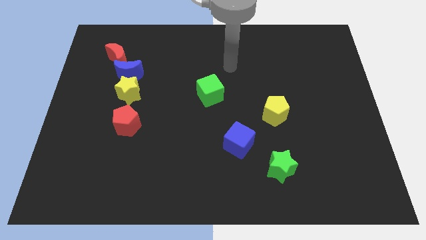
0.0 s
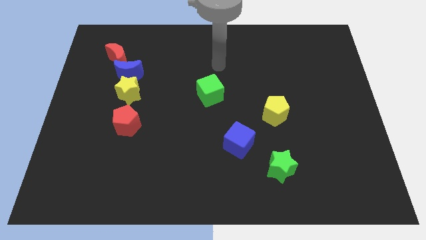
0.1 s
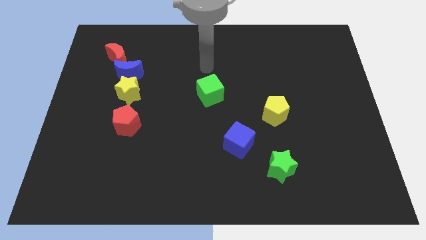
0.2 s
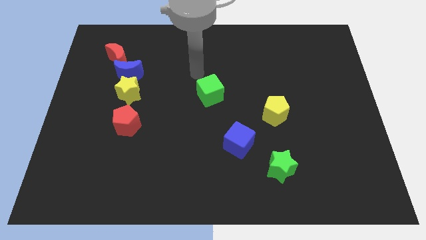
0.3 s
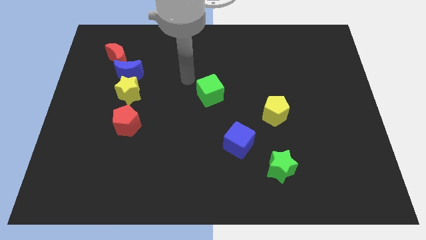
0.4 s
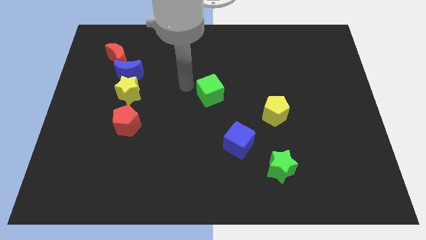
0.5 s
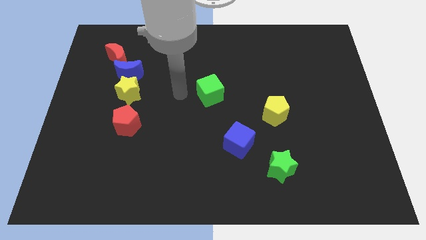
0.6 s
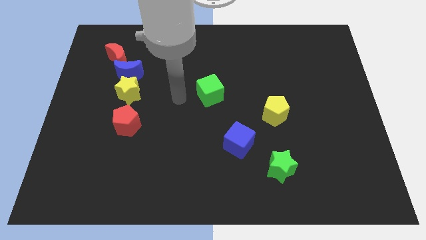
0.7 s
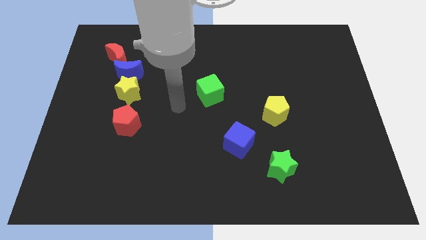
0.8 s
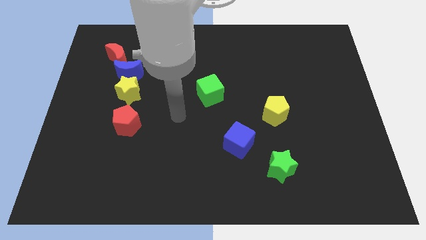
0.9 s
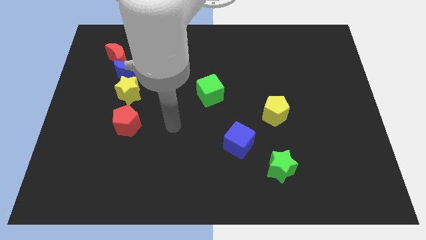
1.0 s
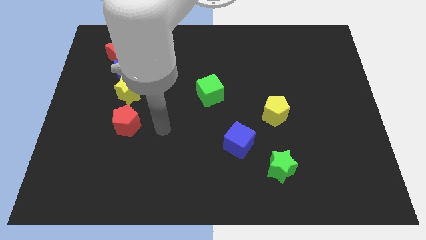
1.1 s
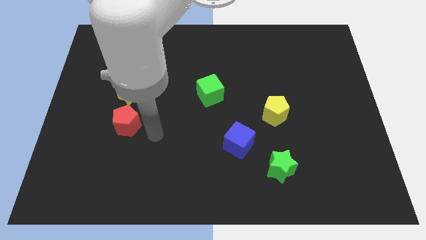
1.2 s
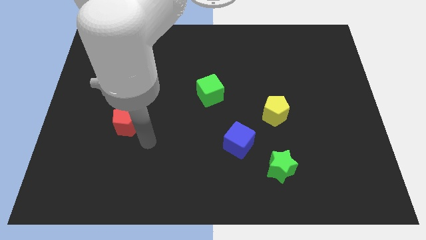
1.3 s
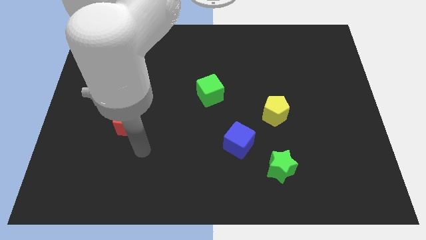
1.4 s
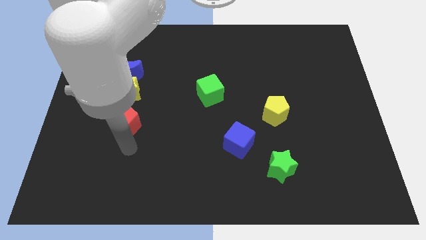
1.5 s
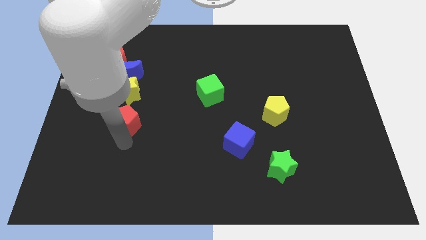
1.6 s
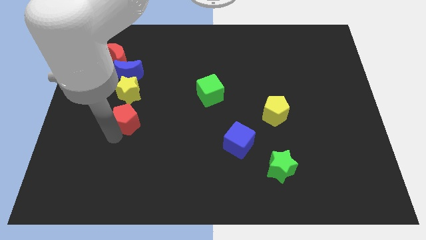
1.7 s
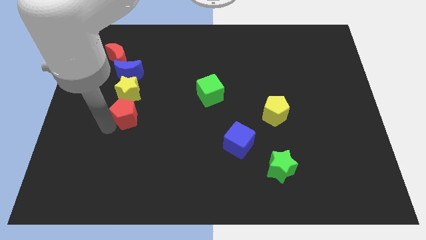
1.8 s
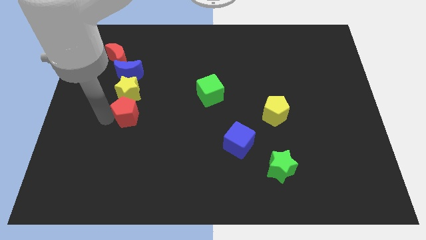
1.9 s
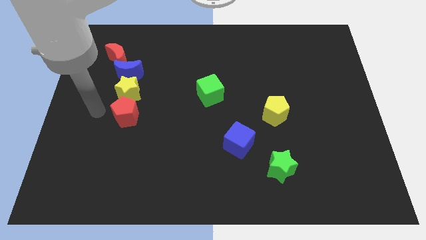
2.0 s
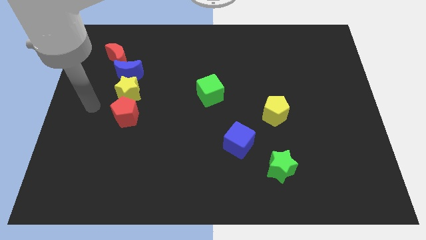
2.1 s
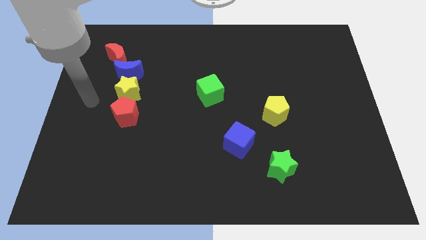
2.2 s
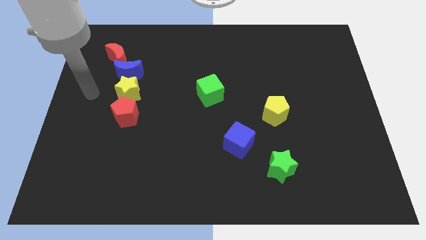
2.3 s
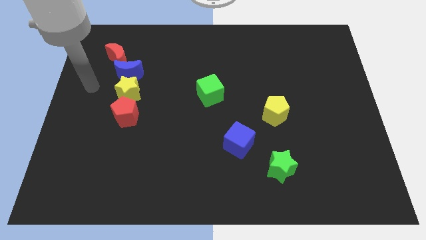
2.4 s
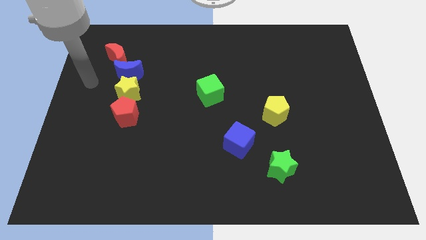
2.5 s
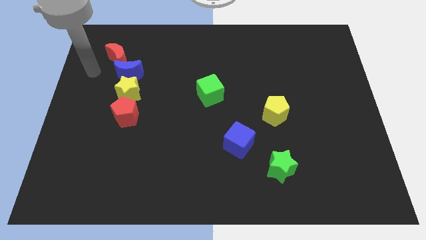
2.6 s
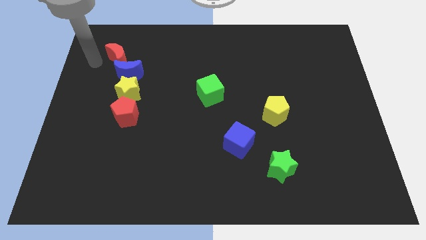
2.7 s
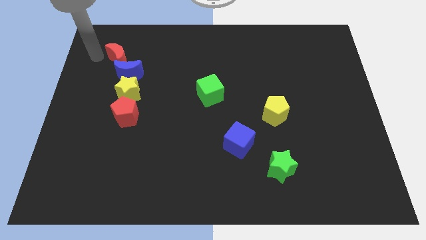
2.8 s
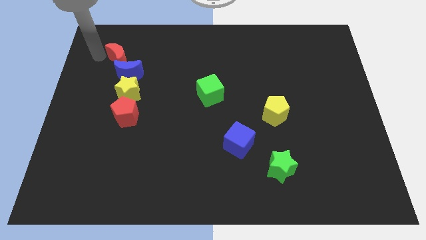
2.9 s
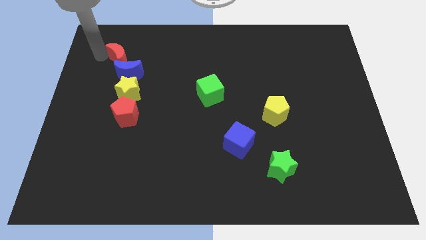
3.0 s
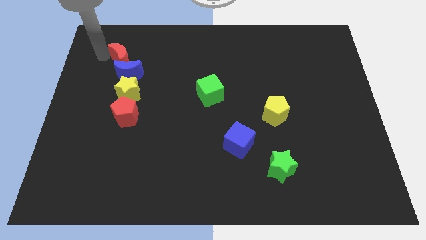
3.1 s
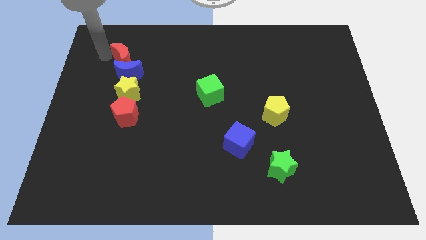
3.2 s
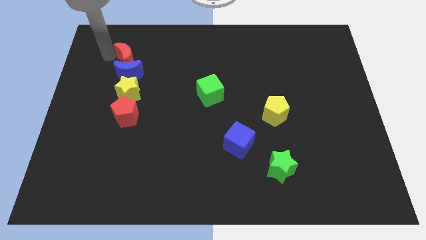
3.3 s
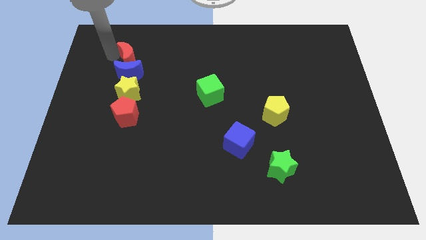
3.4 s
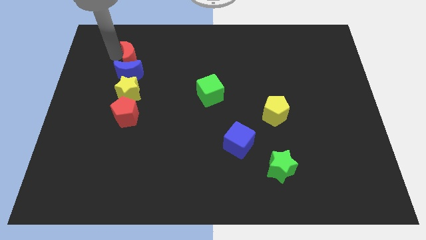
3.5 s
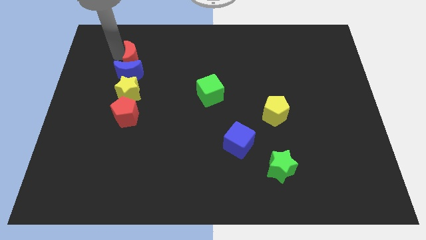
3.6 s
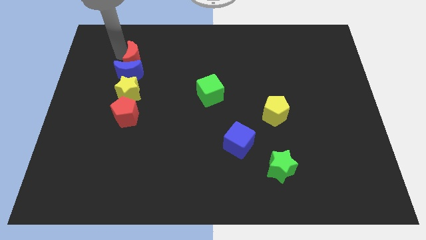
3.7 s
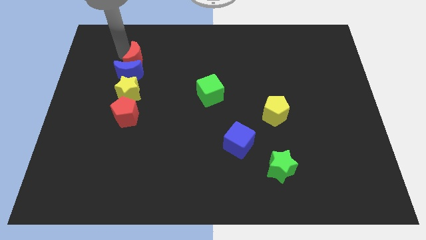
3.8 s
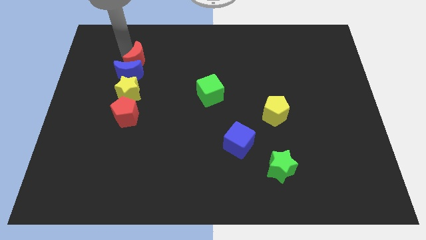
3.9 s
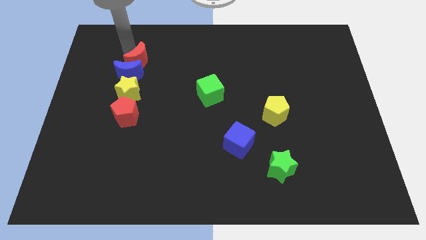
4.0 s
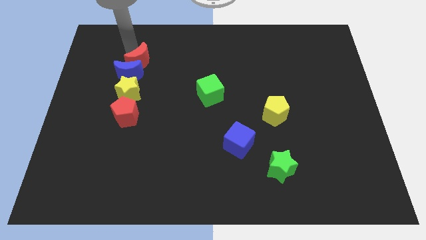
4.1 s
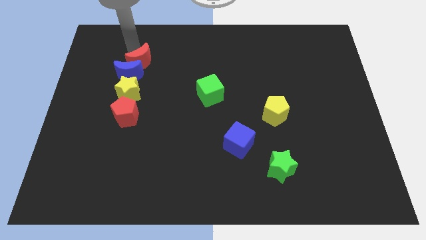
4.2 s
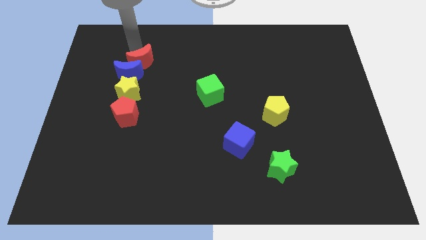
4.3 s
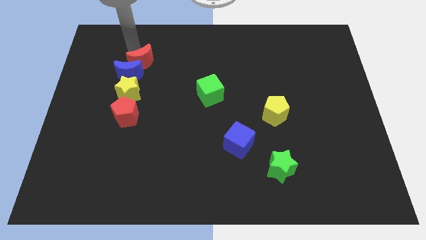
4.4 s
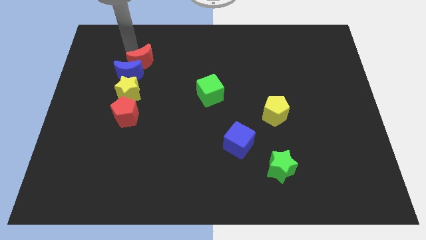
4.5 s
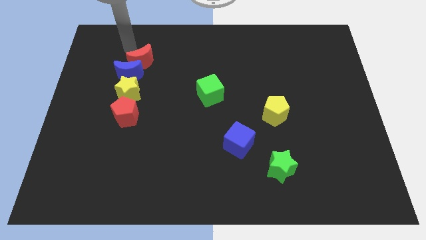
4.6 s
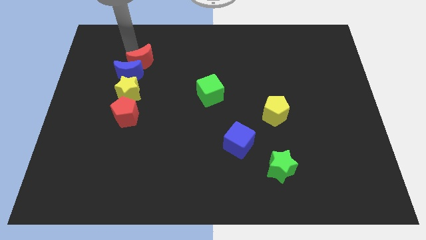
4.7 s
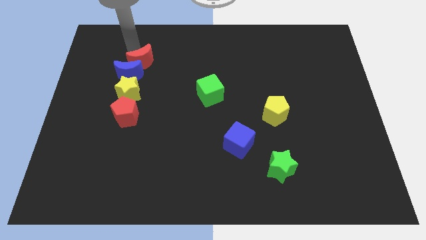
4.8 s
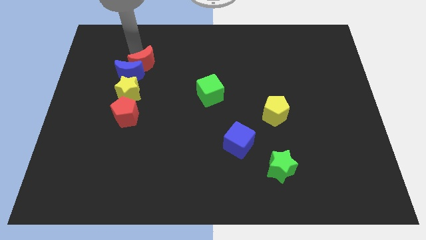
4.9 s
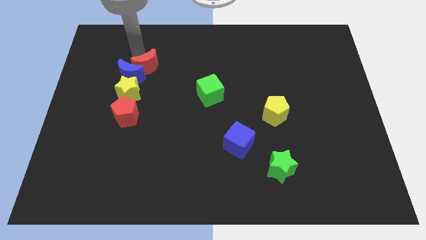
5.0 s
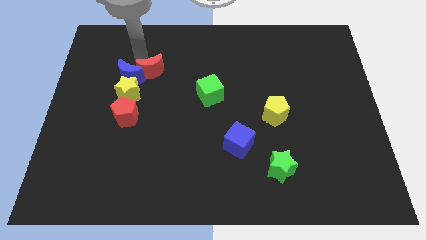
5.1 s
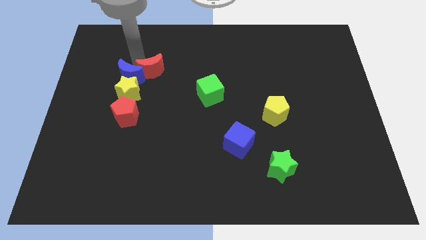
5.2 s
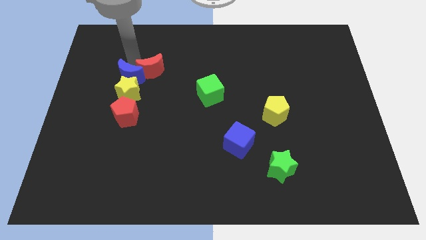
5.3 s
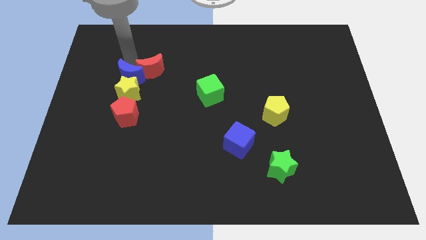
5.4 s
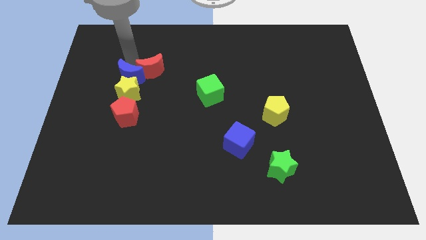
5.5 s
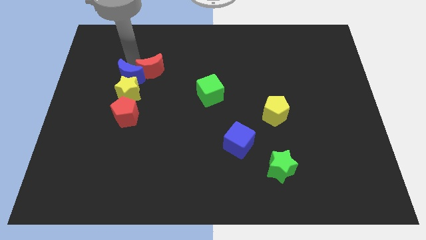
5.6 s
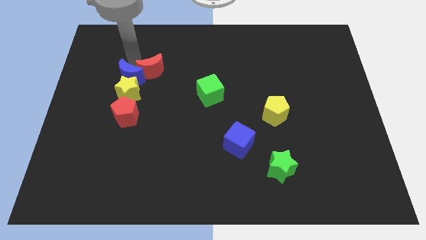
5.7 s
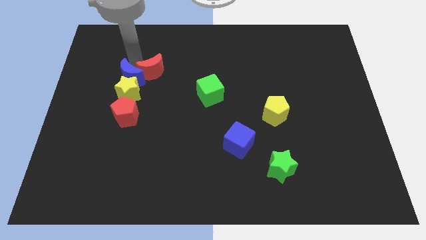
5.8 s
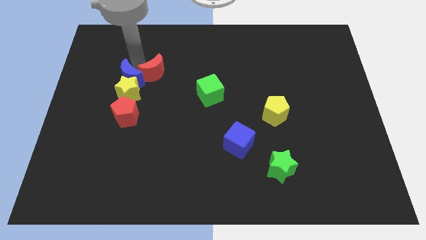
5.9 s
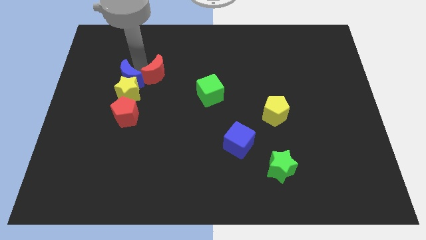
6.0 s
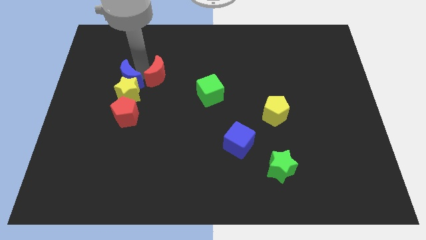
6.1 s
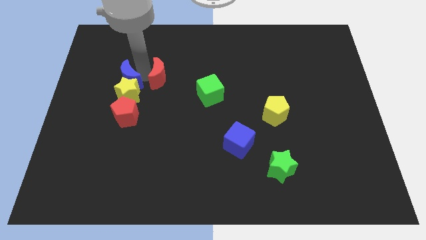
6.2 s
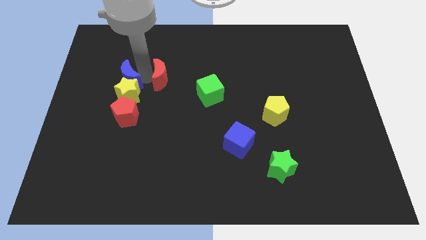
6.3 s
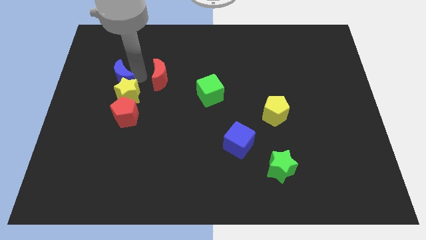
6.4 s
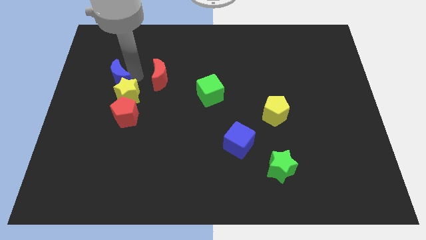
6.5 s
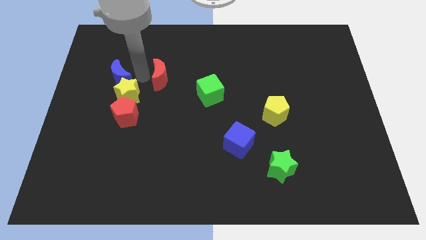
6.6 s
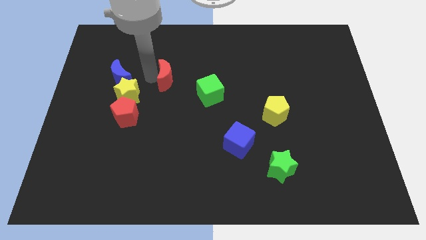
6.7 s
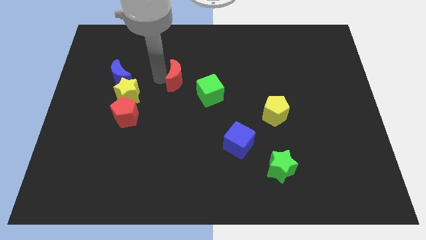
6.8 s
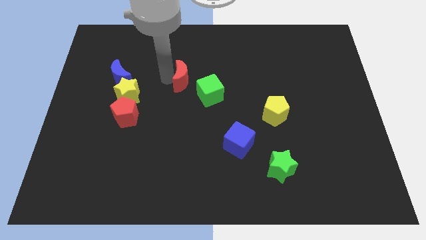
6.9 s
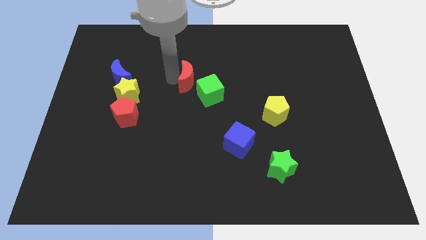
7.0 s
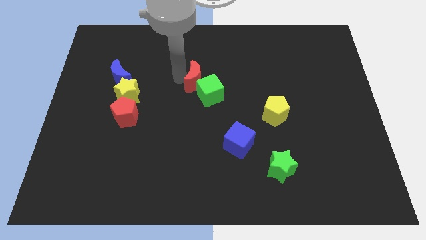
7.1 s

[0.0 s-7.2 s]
move the red moon next to the green cube

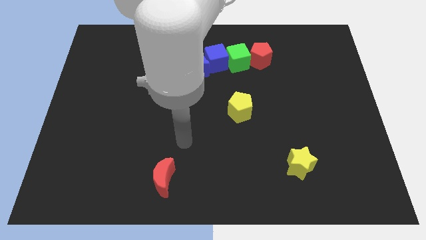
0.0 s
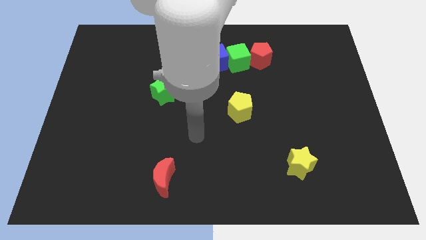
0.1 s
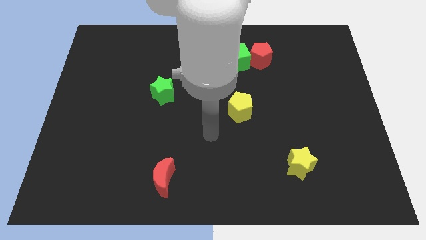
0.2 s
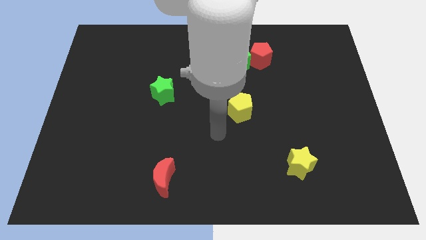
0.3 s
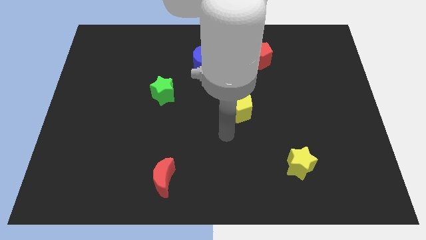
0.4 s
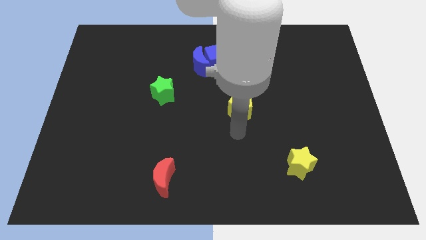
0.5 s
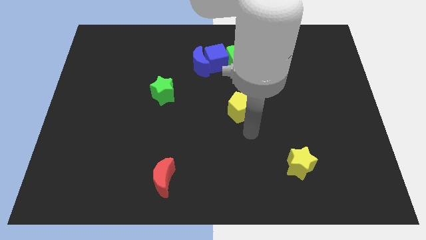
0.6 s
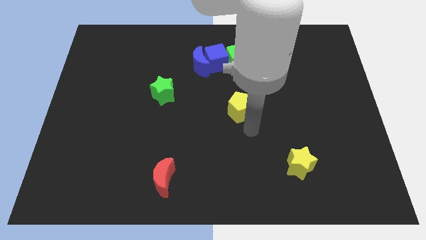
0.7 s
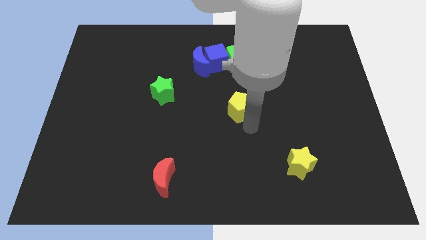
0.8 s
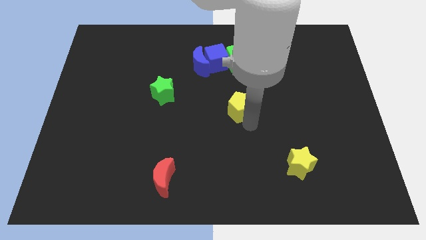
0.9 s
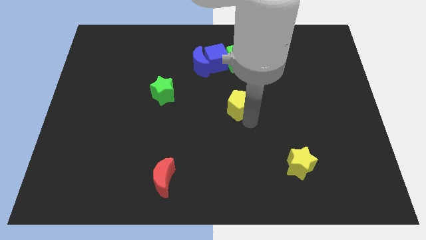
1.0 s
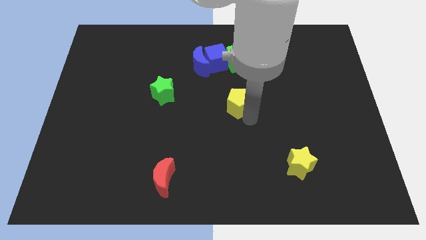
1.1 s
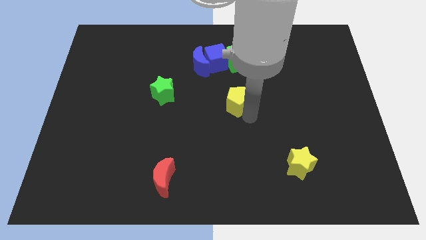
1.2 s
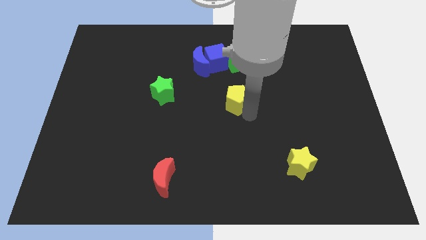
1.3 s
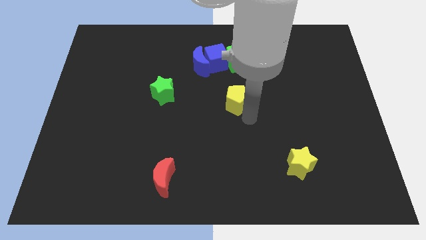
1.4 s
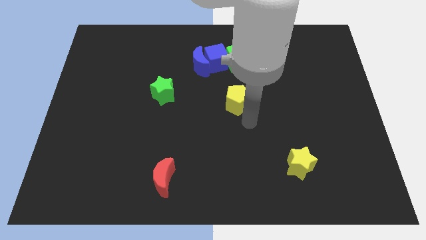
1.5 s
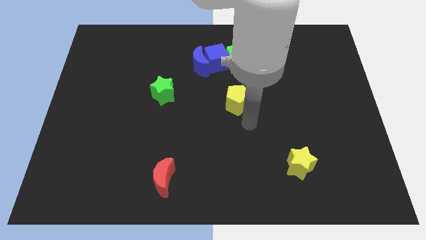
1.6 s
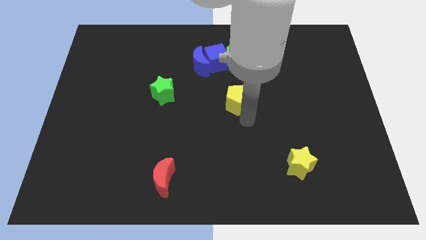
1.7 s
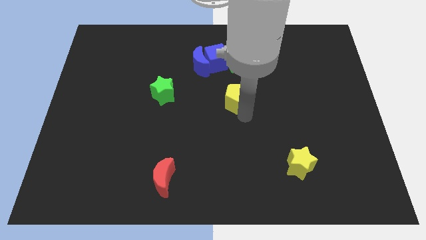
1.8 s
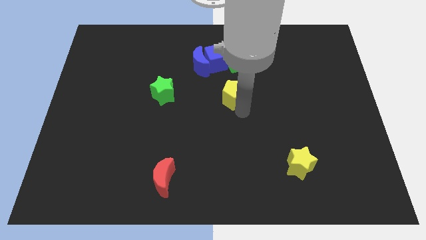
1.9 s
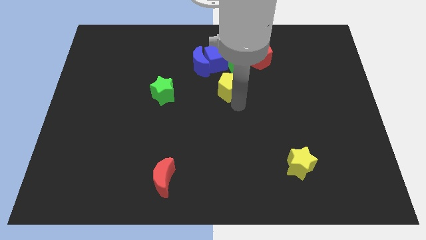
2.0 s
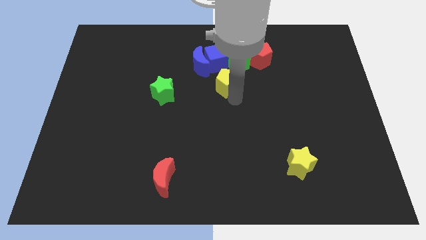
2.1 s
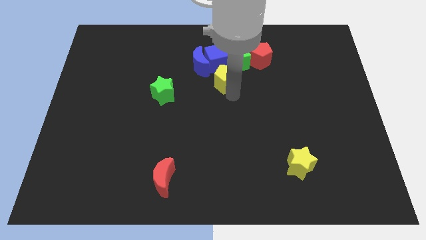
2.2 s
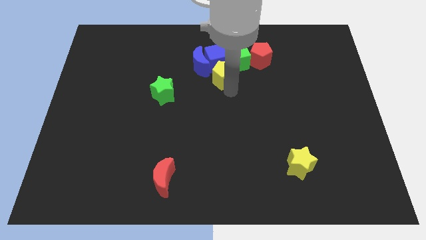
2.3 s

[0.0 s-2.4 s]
push the yellow pentagon to the blue cube
